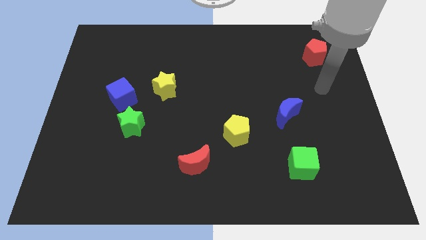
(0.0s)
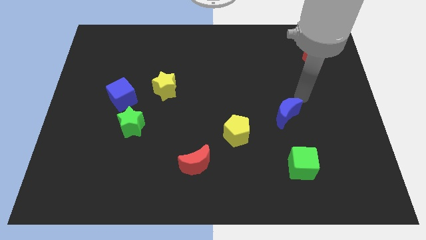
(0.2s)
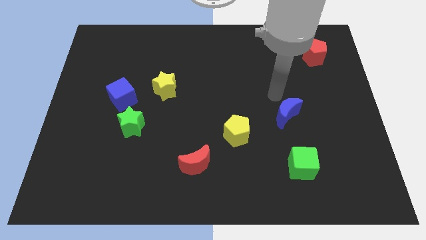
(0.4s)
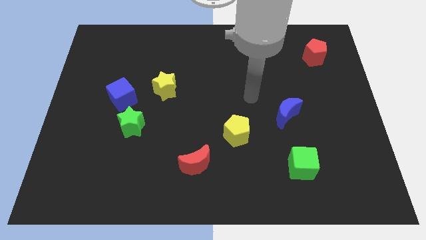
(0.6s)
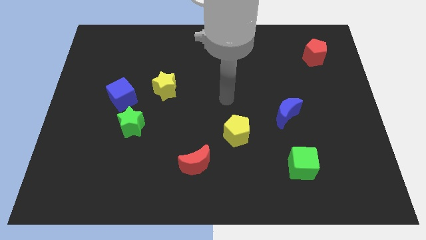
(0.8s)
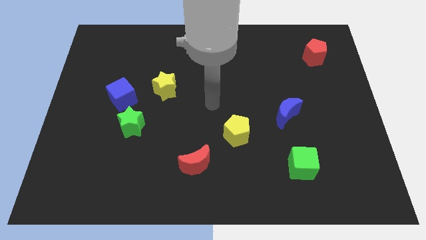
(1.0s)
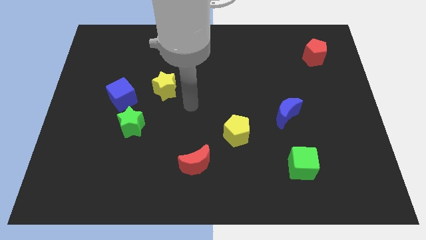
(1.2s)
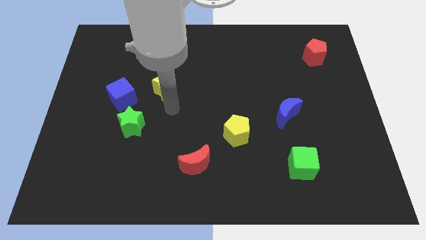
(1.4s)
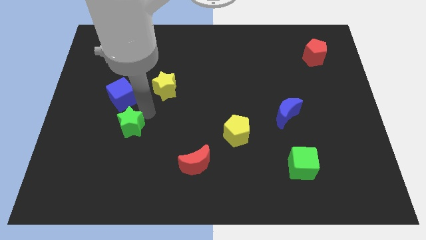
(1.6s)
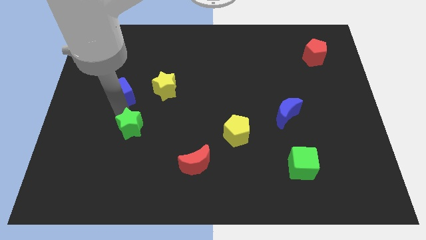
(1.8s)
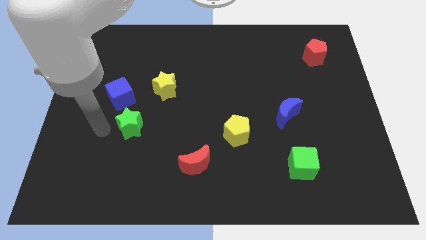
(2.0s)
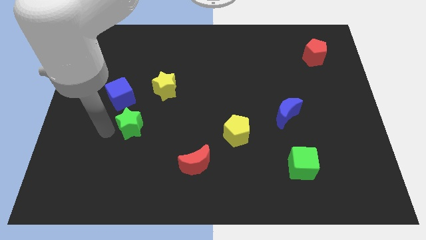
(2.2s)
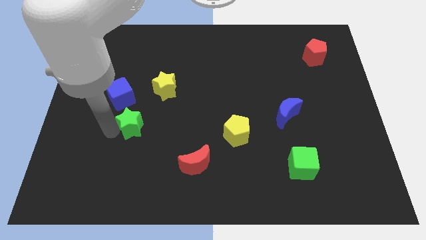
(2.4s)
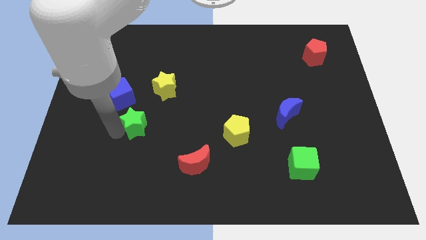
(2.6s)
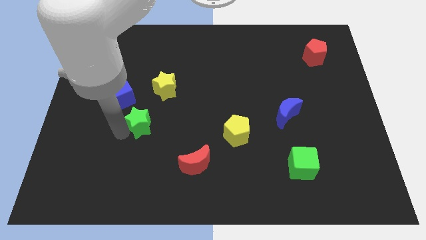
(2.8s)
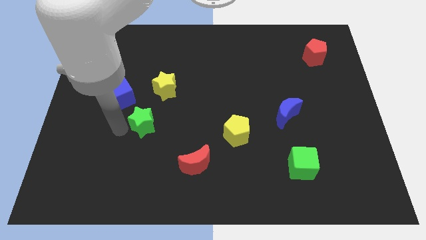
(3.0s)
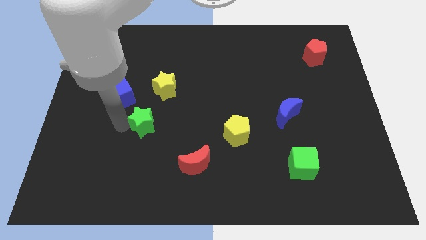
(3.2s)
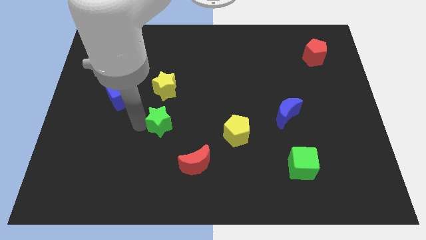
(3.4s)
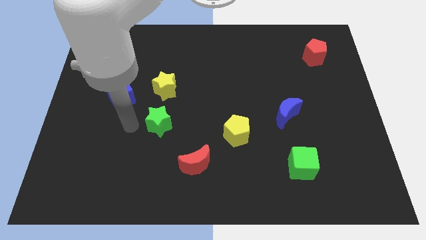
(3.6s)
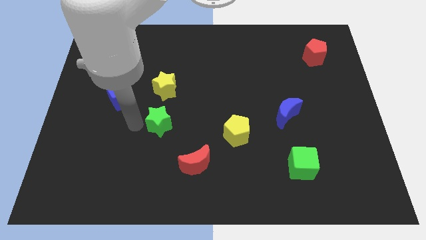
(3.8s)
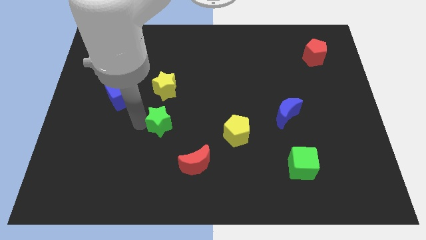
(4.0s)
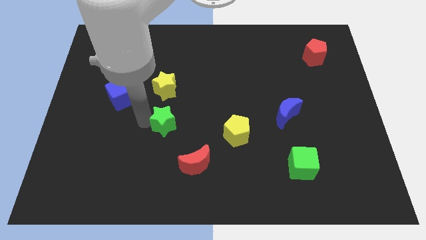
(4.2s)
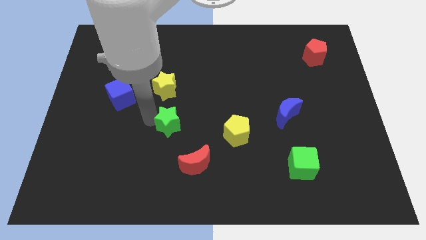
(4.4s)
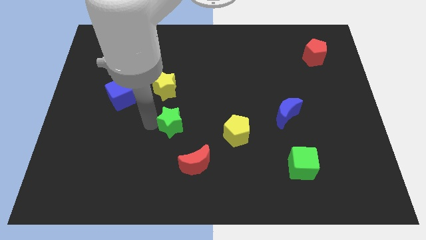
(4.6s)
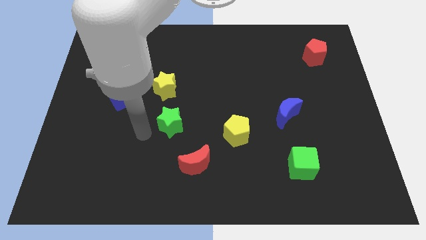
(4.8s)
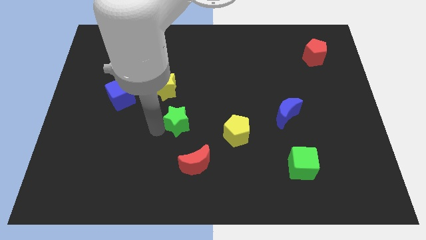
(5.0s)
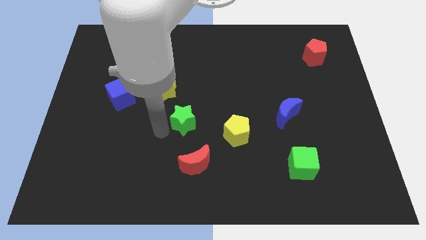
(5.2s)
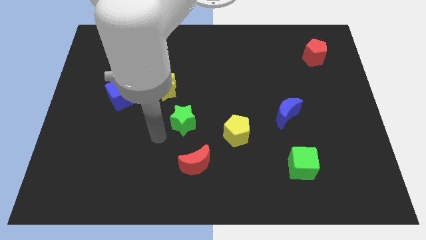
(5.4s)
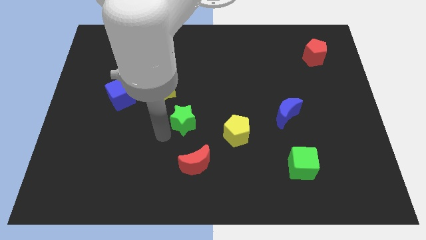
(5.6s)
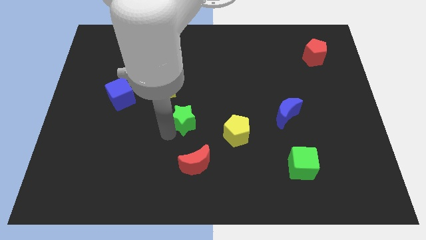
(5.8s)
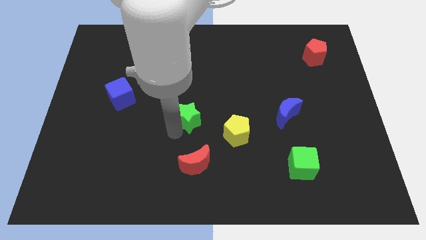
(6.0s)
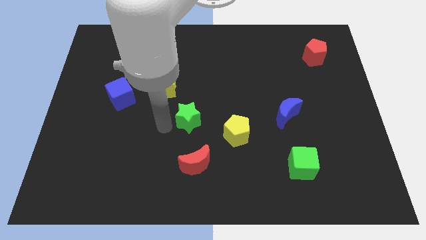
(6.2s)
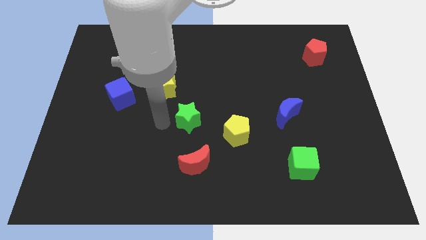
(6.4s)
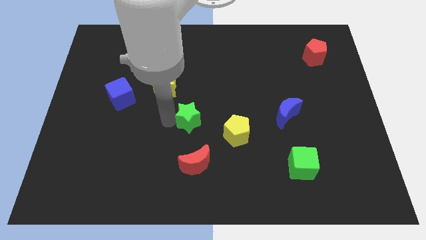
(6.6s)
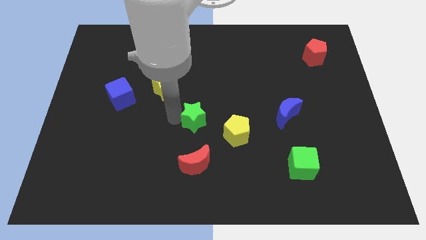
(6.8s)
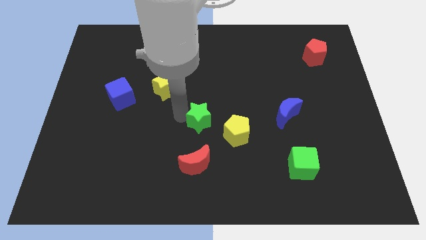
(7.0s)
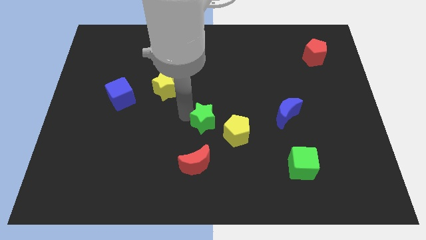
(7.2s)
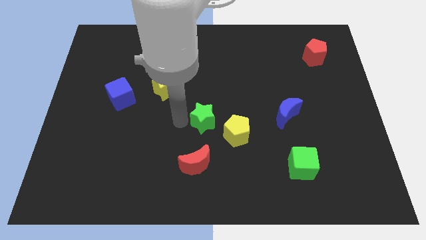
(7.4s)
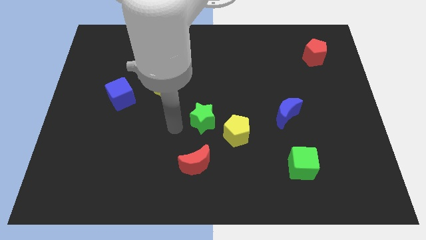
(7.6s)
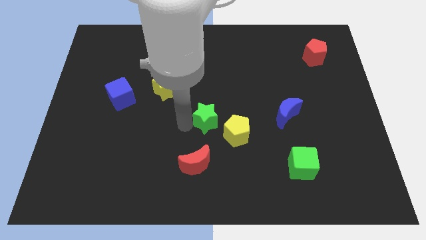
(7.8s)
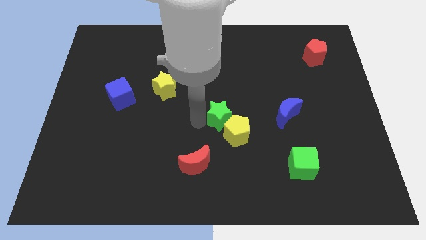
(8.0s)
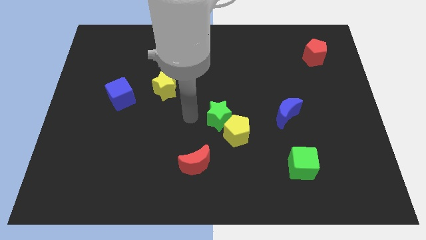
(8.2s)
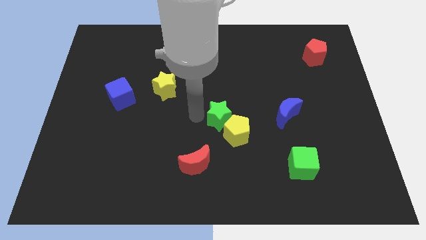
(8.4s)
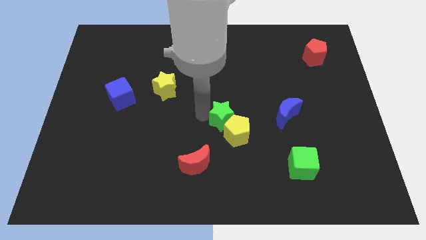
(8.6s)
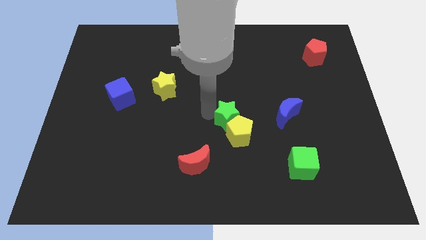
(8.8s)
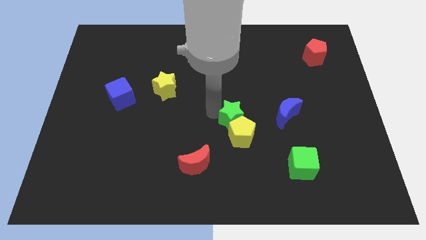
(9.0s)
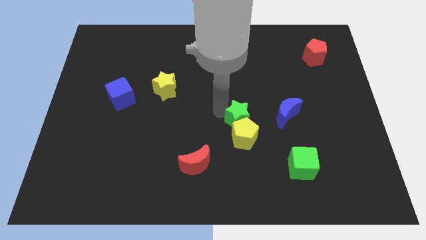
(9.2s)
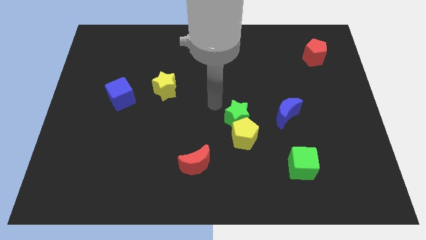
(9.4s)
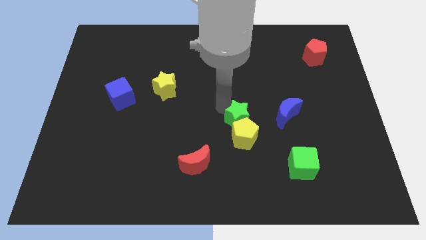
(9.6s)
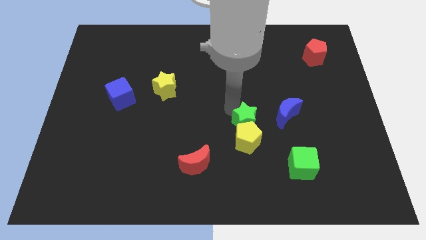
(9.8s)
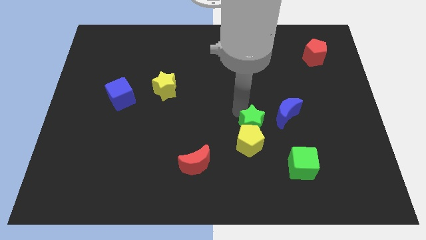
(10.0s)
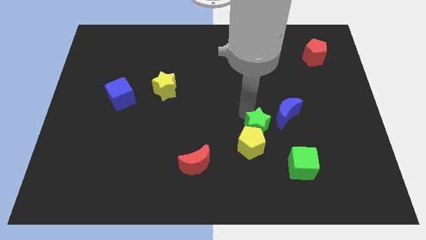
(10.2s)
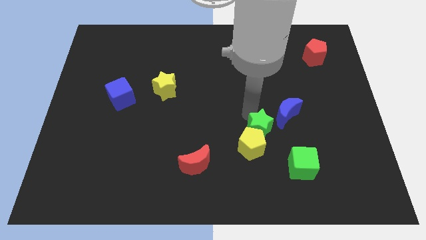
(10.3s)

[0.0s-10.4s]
slide the green star to the top left side of the green cube

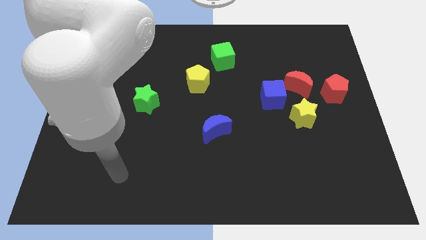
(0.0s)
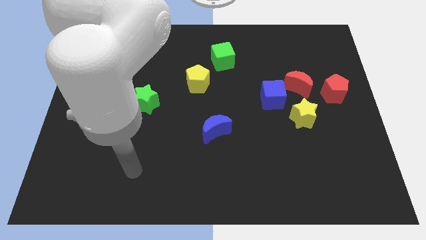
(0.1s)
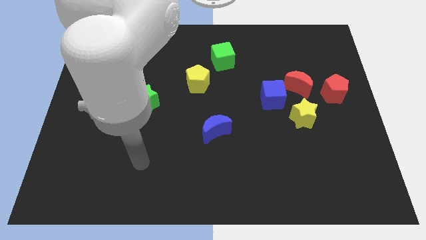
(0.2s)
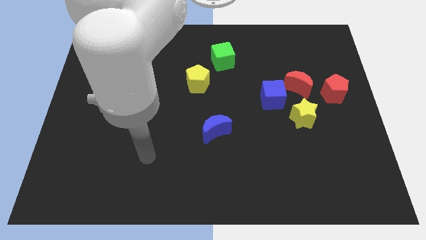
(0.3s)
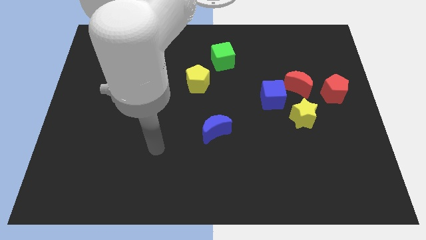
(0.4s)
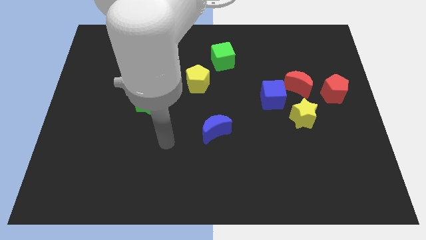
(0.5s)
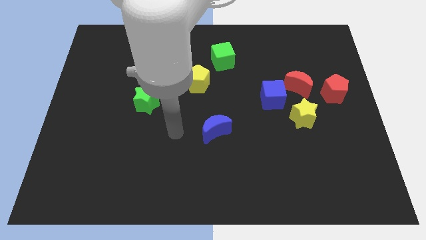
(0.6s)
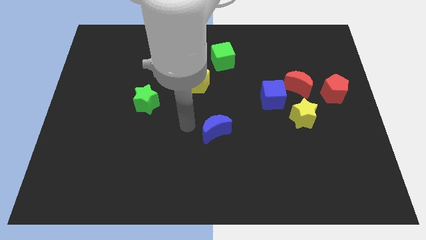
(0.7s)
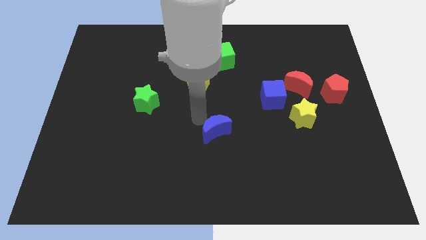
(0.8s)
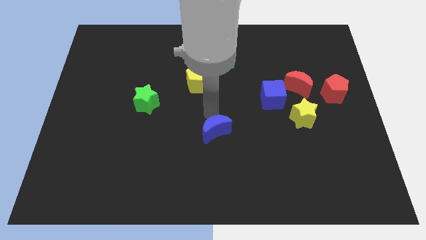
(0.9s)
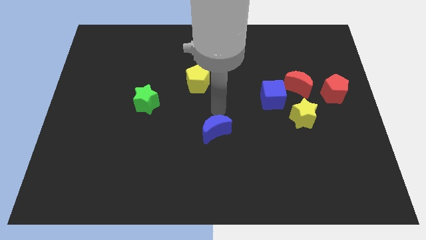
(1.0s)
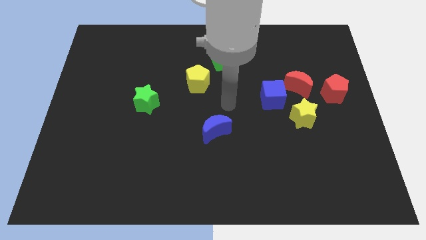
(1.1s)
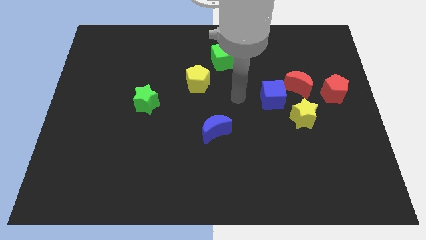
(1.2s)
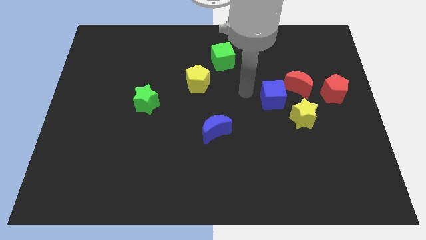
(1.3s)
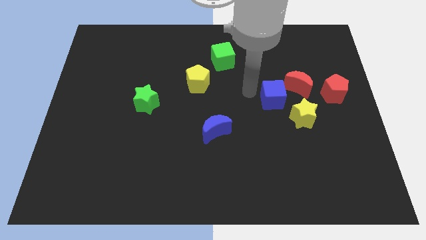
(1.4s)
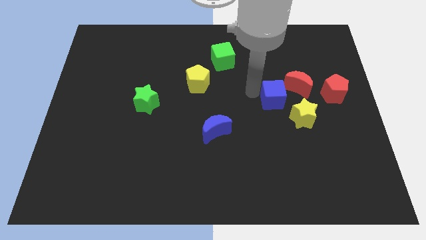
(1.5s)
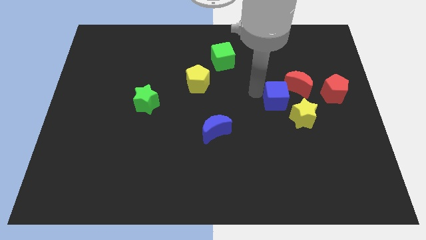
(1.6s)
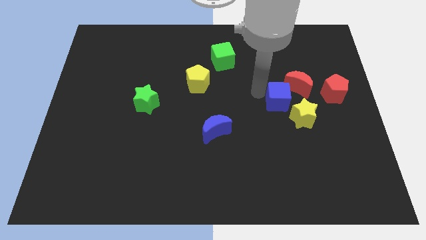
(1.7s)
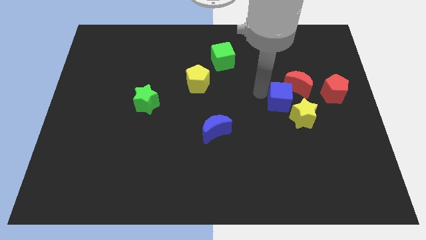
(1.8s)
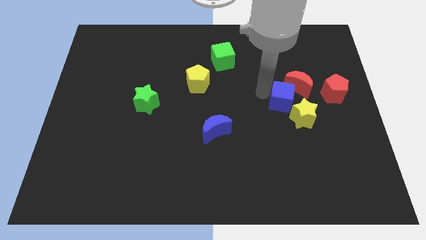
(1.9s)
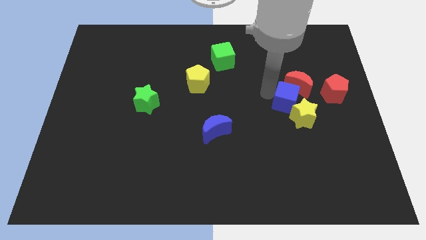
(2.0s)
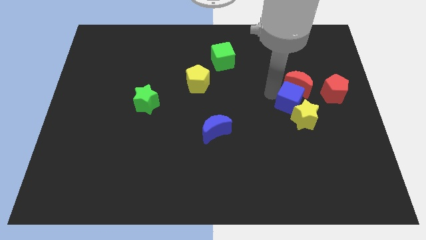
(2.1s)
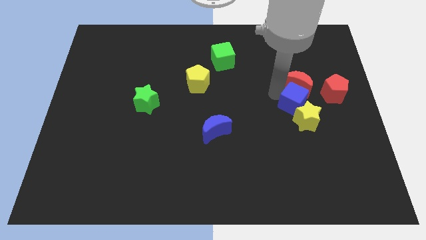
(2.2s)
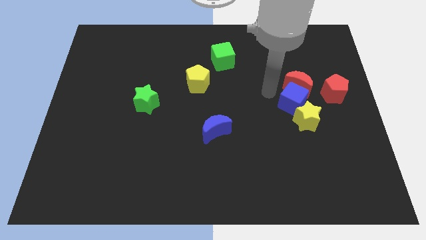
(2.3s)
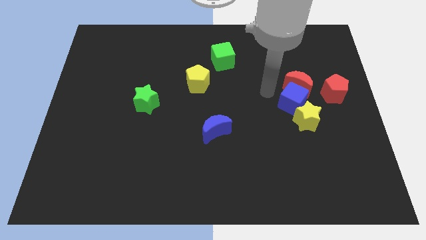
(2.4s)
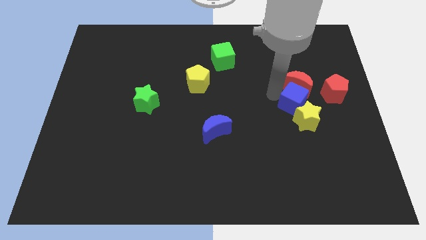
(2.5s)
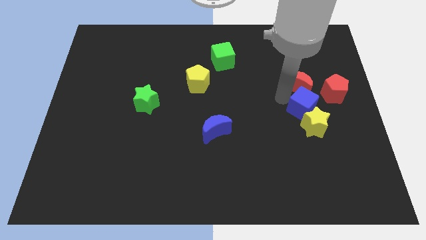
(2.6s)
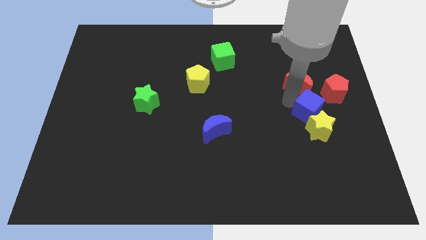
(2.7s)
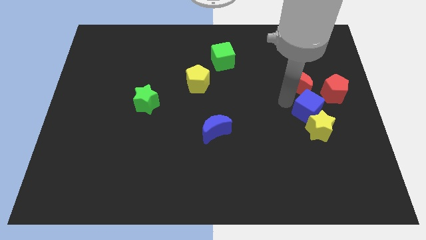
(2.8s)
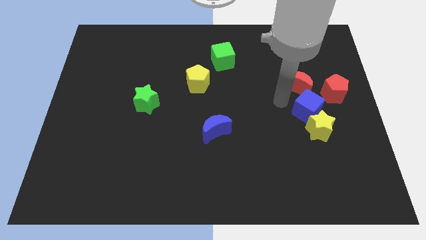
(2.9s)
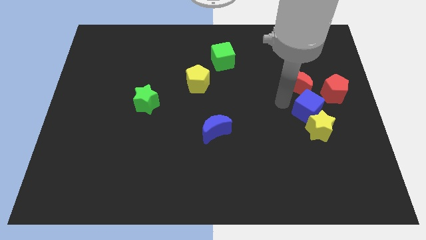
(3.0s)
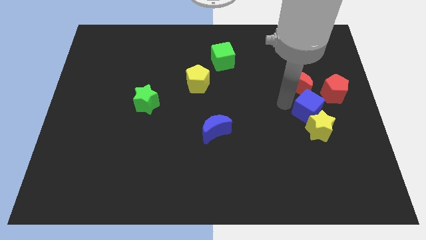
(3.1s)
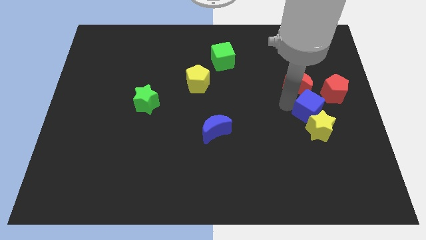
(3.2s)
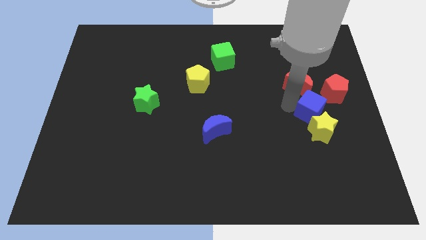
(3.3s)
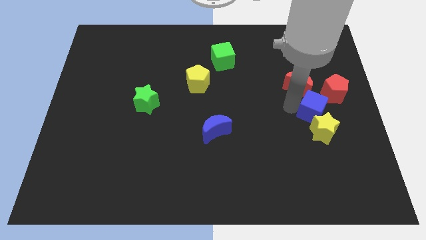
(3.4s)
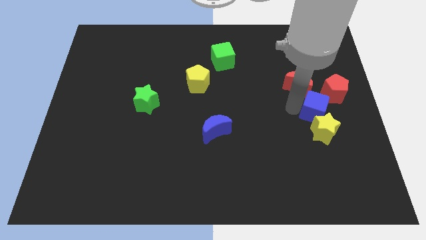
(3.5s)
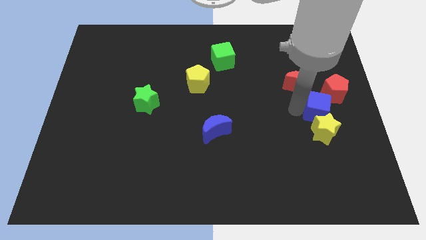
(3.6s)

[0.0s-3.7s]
put the blue cube to the bottom side of the red pentagon
